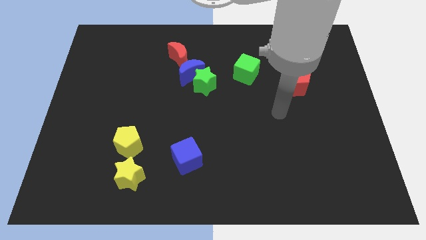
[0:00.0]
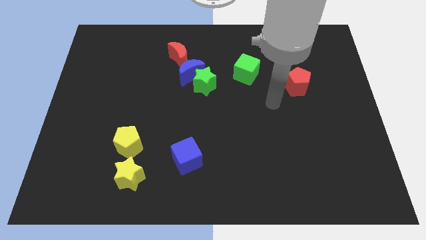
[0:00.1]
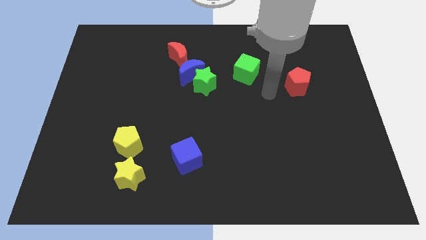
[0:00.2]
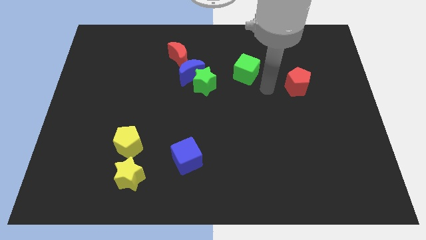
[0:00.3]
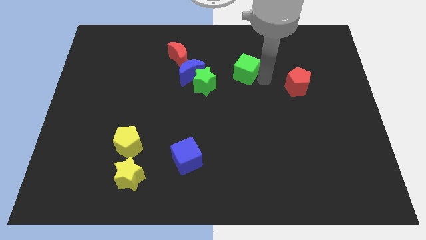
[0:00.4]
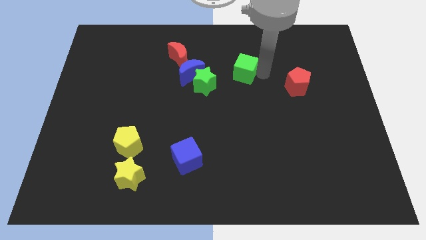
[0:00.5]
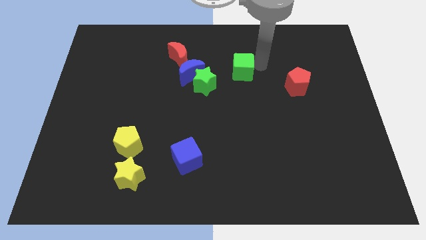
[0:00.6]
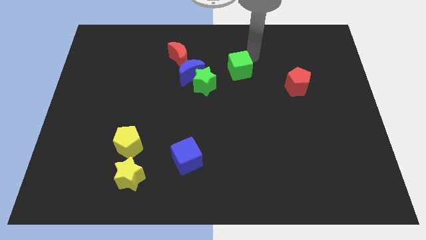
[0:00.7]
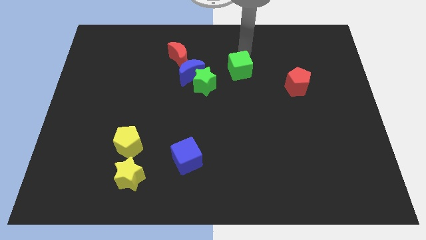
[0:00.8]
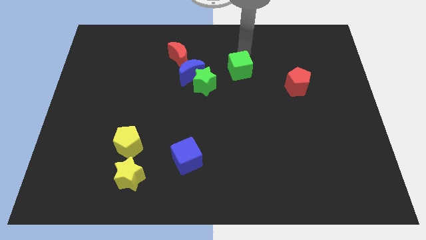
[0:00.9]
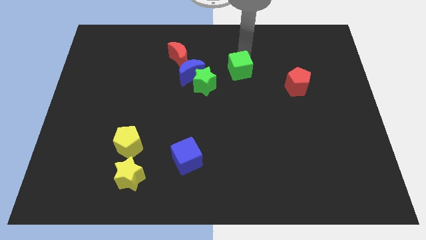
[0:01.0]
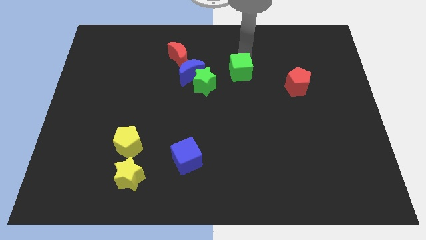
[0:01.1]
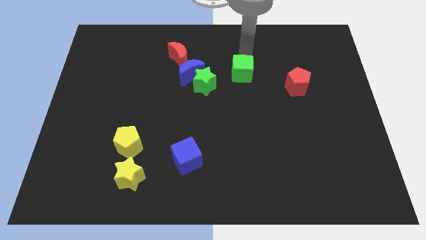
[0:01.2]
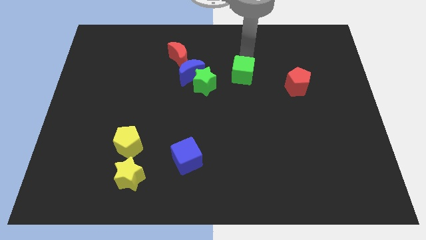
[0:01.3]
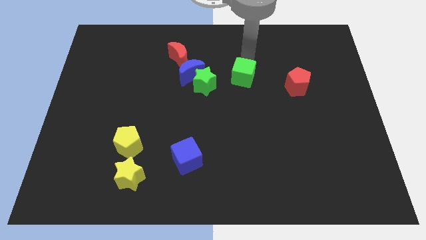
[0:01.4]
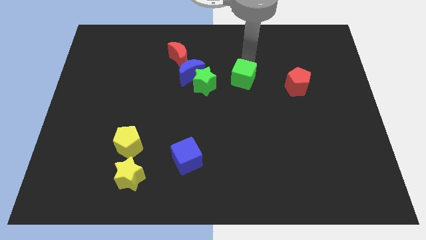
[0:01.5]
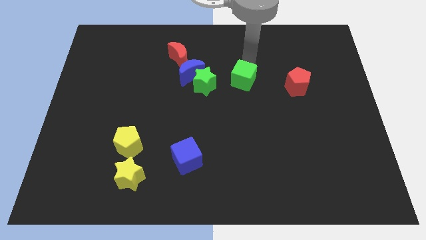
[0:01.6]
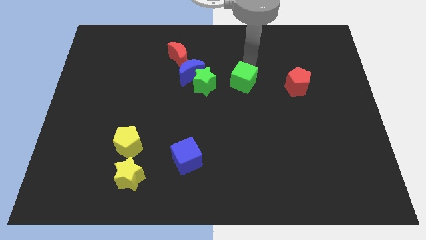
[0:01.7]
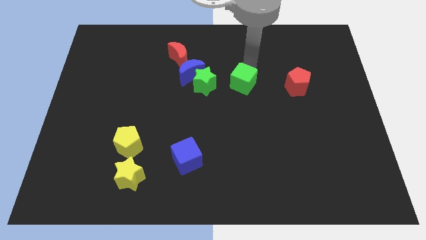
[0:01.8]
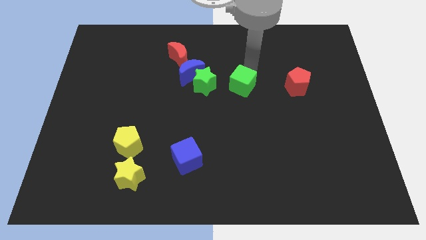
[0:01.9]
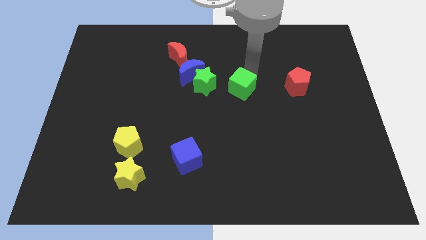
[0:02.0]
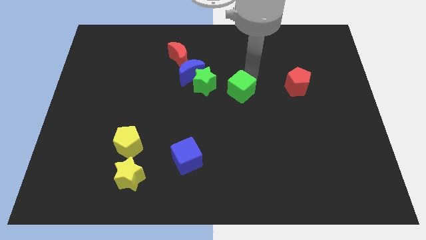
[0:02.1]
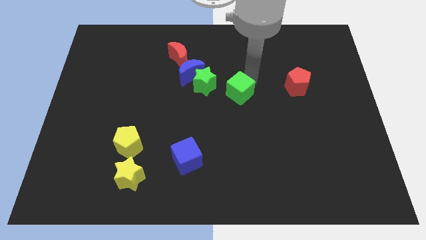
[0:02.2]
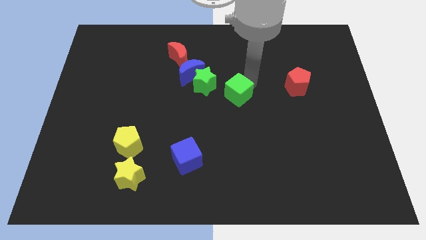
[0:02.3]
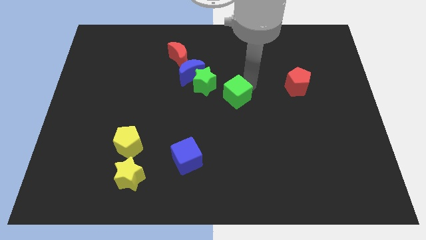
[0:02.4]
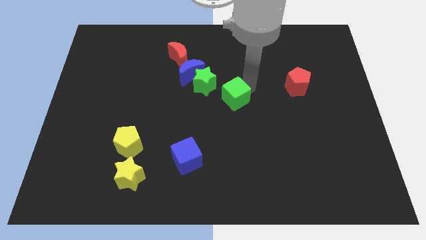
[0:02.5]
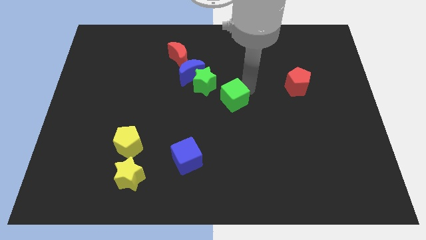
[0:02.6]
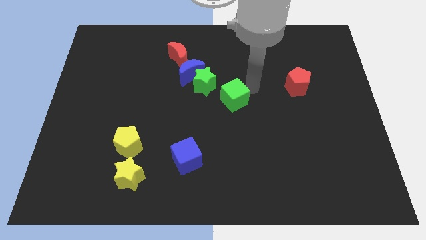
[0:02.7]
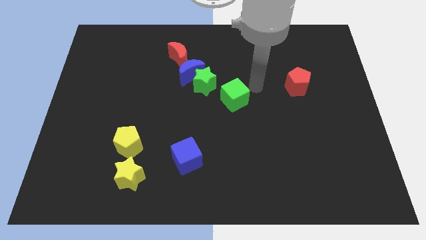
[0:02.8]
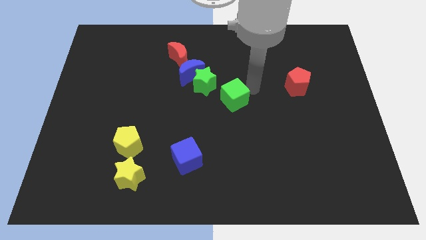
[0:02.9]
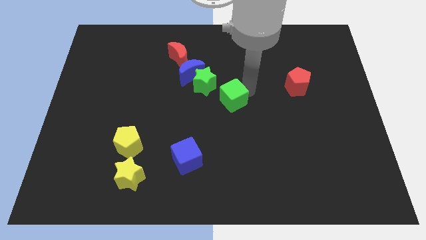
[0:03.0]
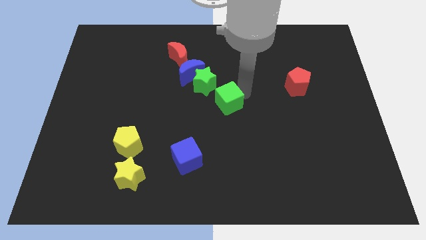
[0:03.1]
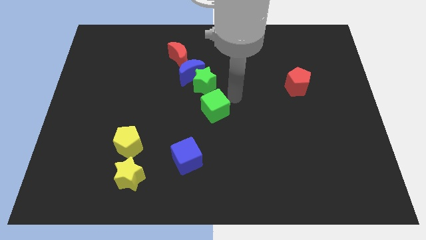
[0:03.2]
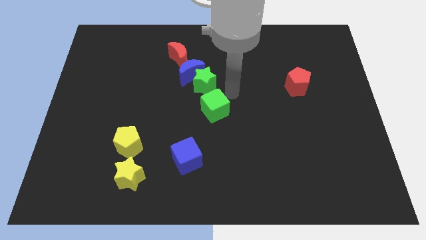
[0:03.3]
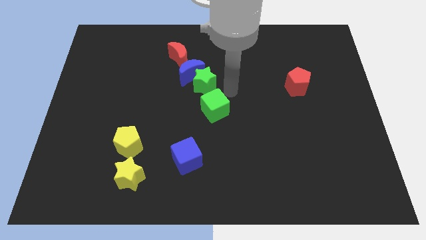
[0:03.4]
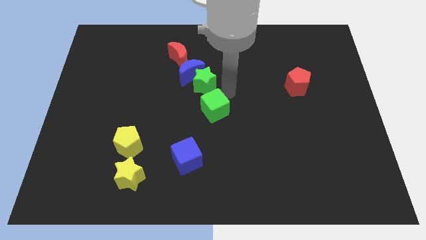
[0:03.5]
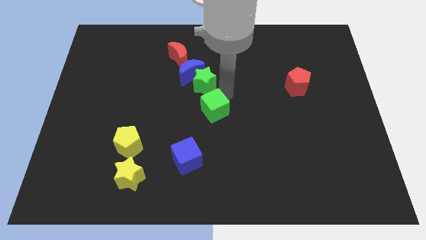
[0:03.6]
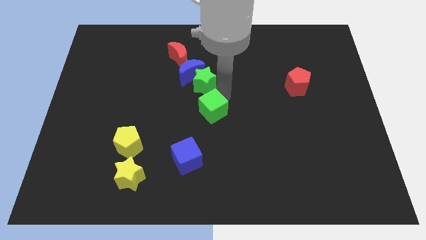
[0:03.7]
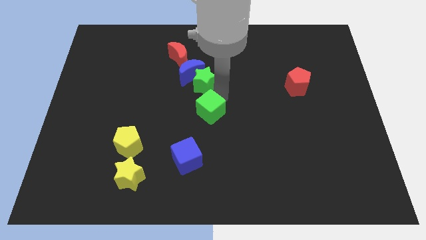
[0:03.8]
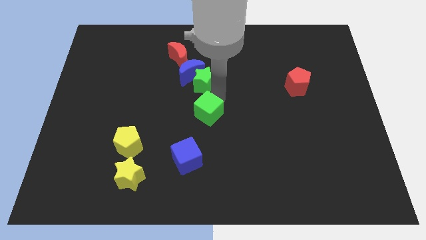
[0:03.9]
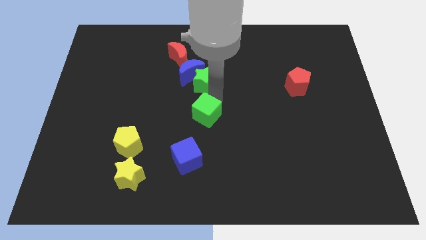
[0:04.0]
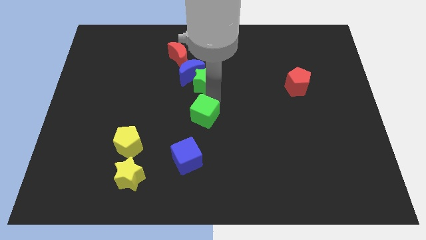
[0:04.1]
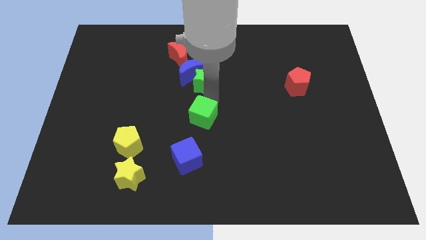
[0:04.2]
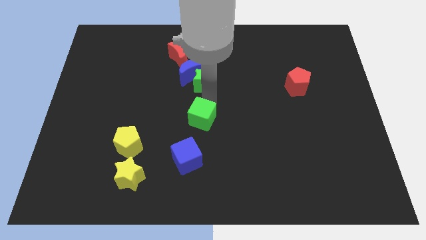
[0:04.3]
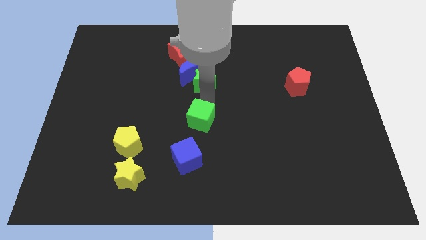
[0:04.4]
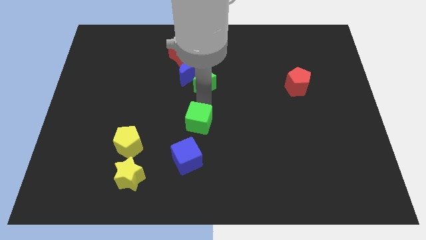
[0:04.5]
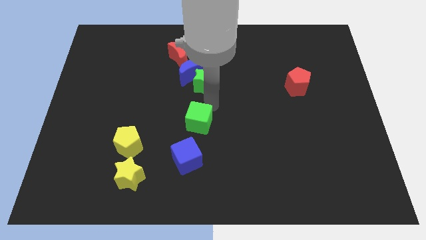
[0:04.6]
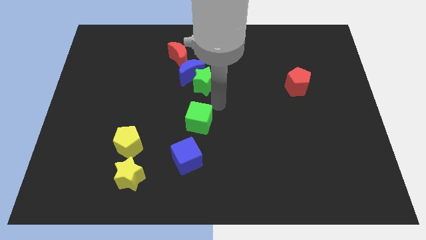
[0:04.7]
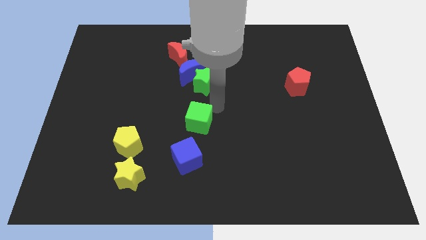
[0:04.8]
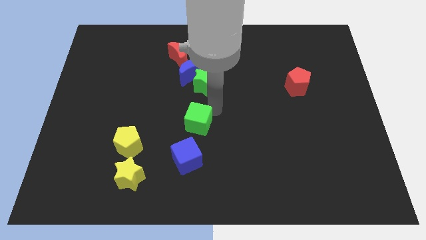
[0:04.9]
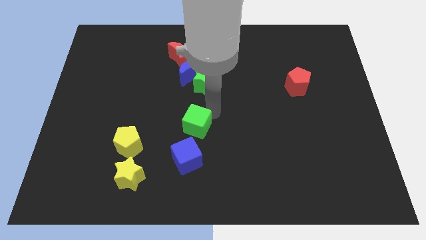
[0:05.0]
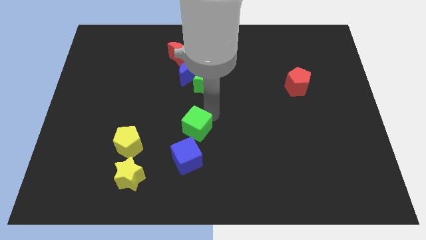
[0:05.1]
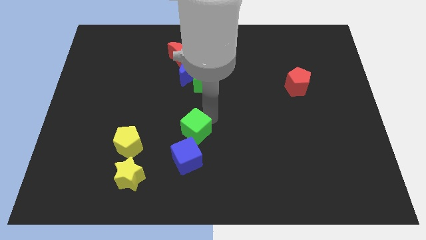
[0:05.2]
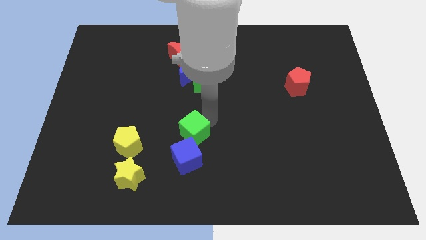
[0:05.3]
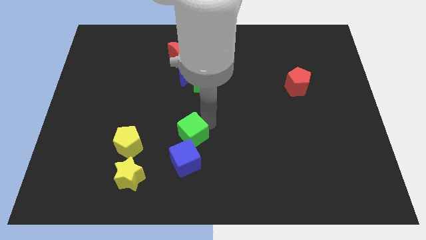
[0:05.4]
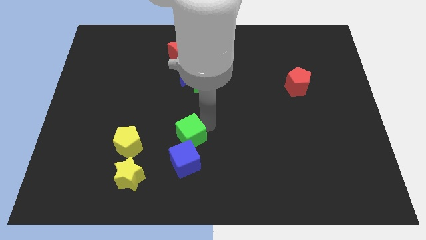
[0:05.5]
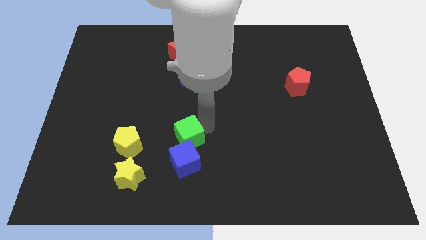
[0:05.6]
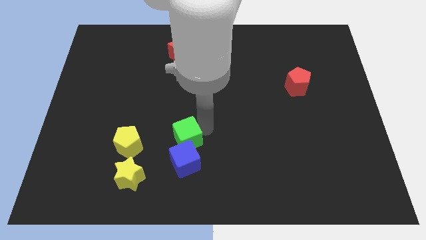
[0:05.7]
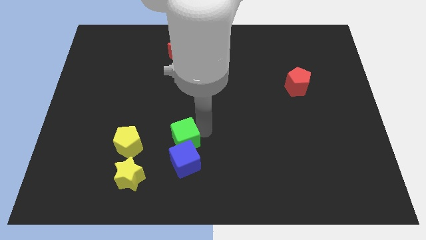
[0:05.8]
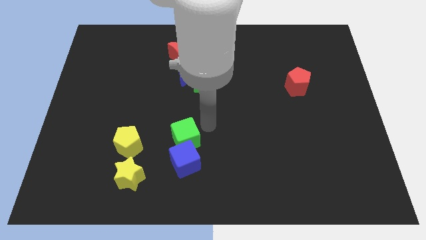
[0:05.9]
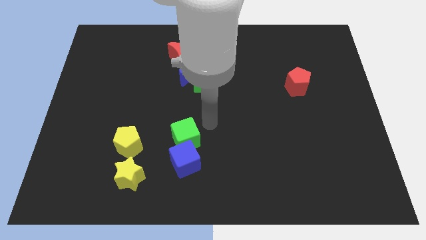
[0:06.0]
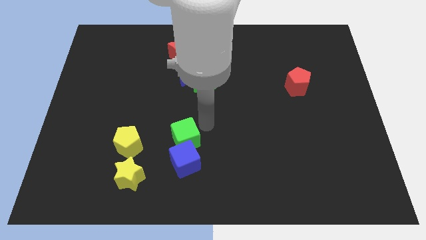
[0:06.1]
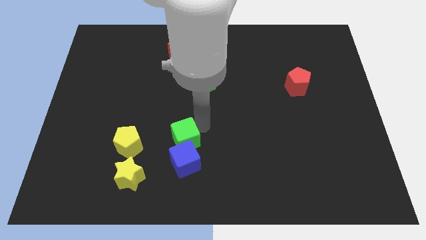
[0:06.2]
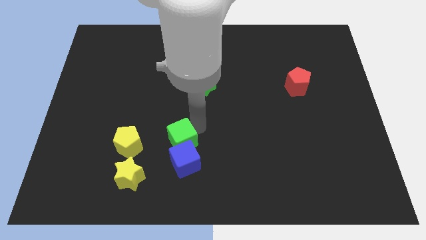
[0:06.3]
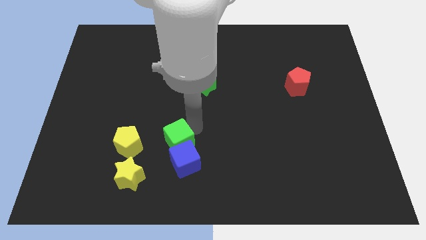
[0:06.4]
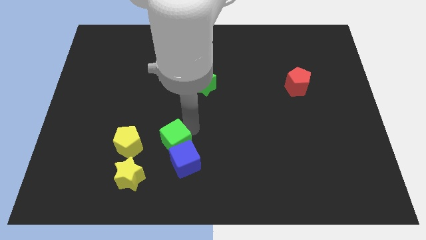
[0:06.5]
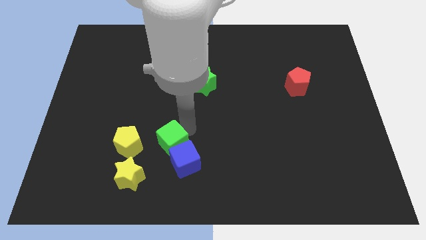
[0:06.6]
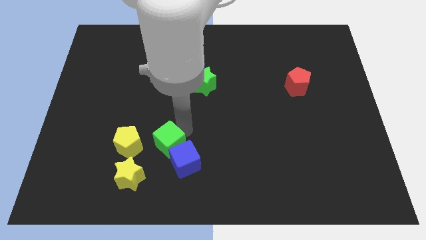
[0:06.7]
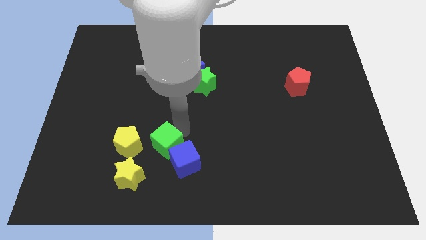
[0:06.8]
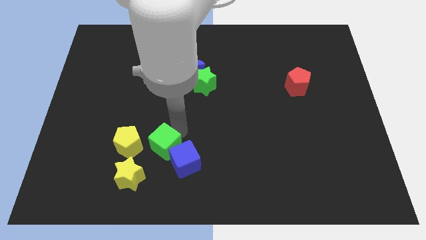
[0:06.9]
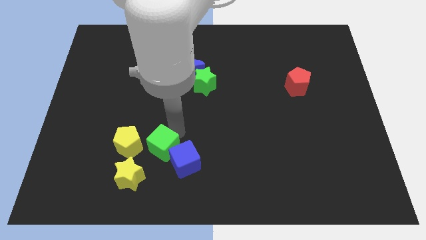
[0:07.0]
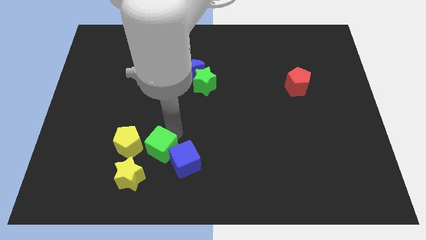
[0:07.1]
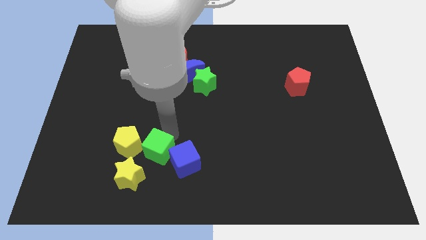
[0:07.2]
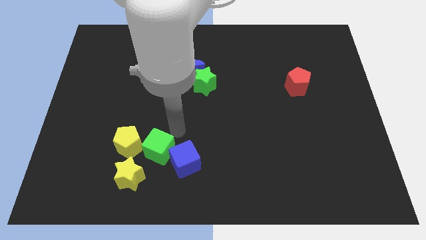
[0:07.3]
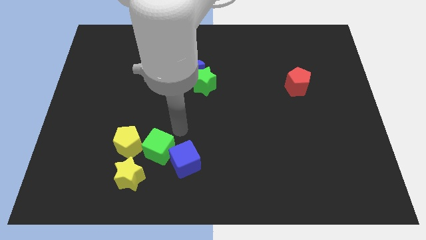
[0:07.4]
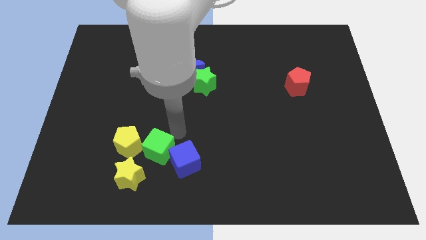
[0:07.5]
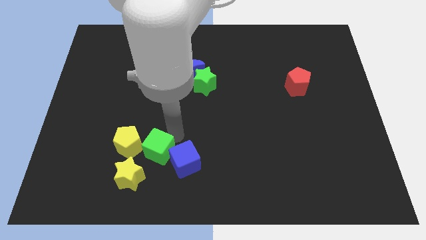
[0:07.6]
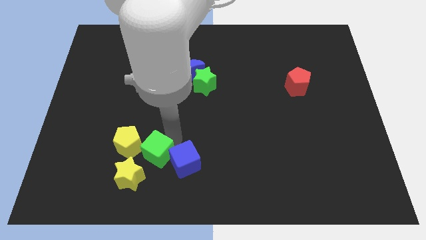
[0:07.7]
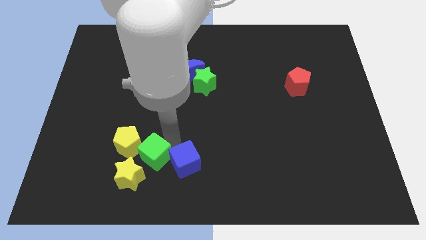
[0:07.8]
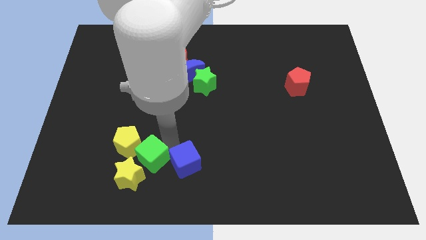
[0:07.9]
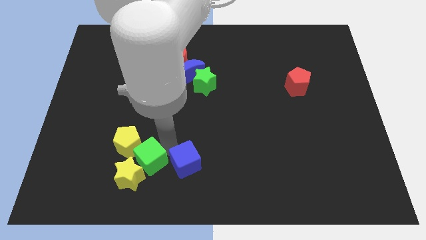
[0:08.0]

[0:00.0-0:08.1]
move the green cube towards the yellow star
